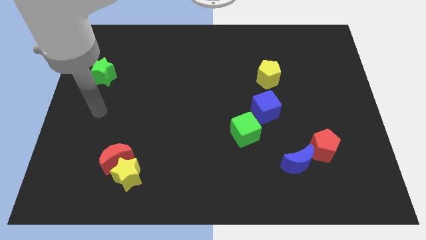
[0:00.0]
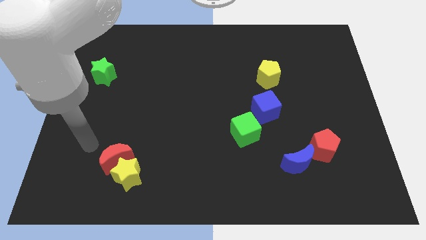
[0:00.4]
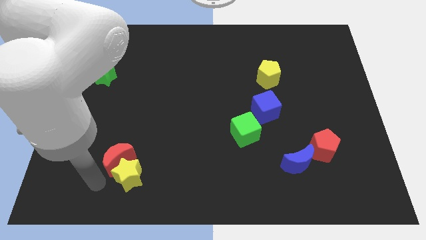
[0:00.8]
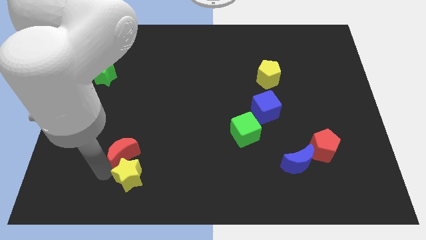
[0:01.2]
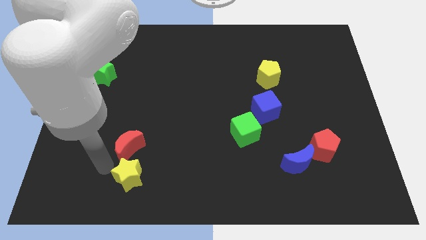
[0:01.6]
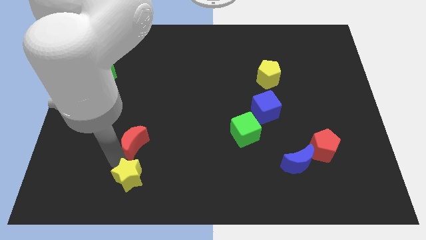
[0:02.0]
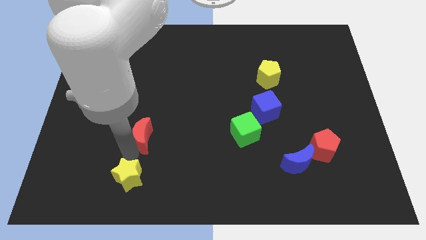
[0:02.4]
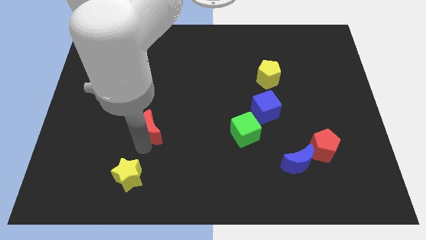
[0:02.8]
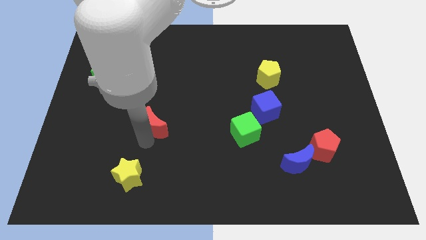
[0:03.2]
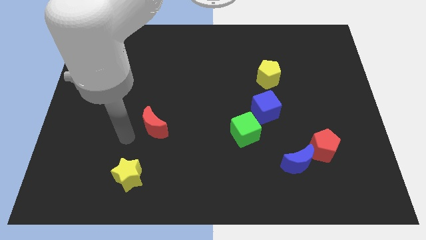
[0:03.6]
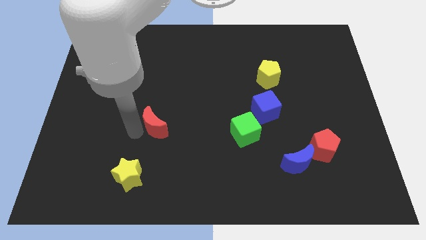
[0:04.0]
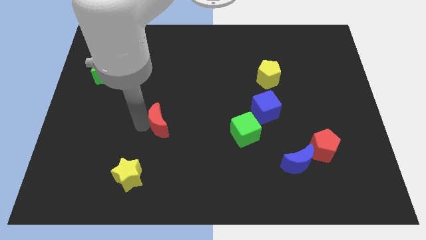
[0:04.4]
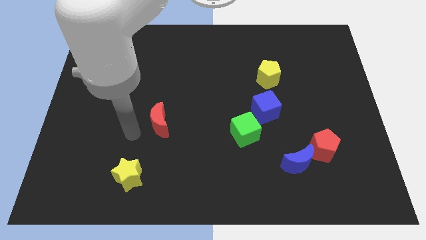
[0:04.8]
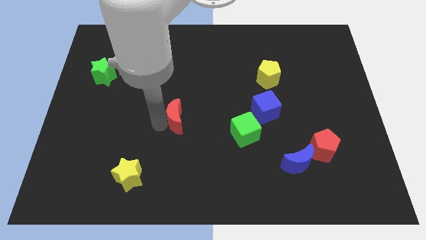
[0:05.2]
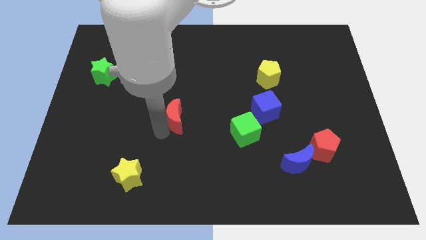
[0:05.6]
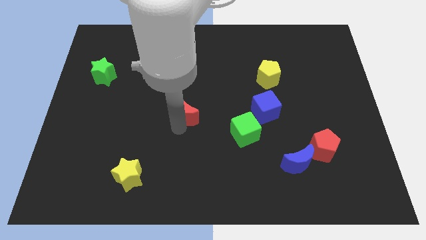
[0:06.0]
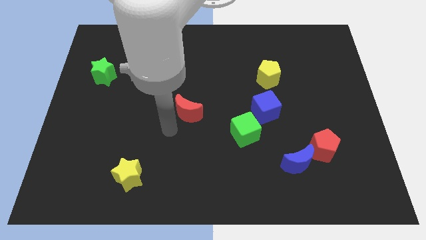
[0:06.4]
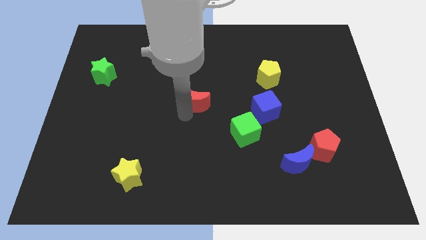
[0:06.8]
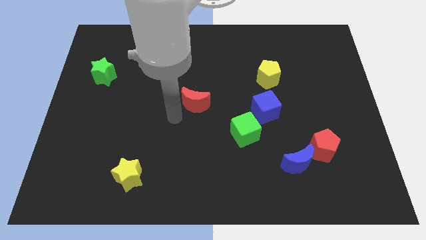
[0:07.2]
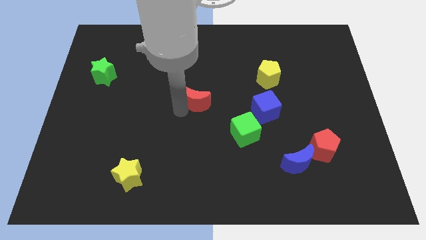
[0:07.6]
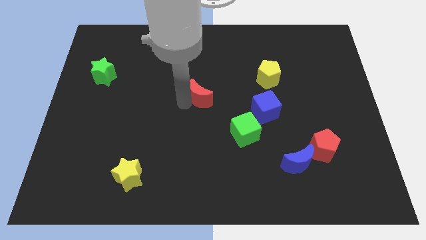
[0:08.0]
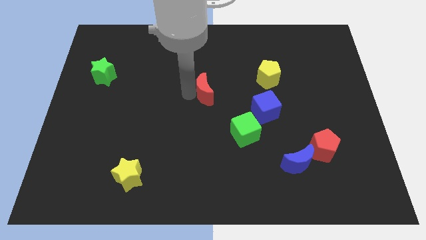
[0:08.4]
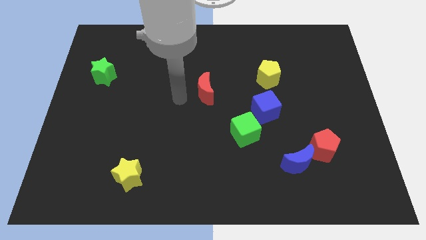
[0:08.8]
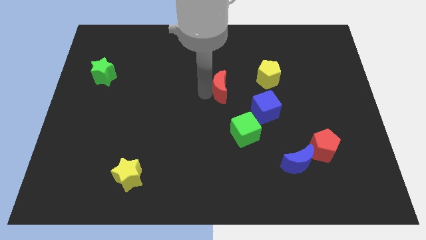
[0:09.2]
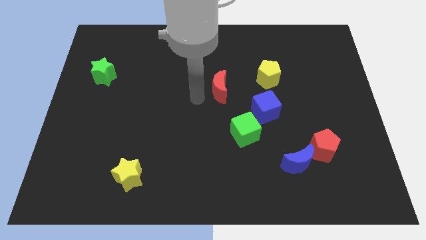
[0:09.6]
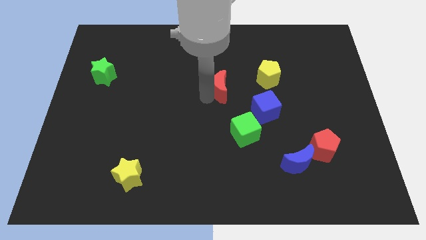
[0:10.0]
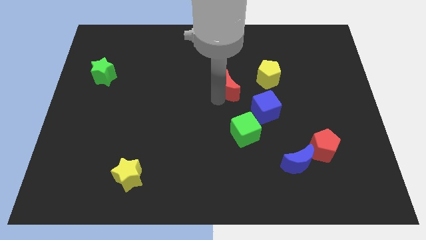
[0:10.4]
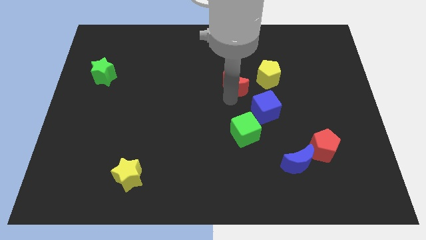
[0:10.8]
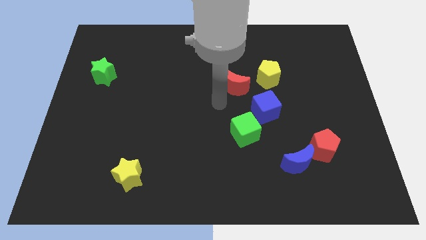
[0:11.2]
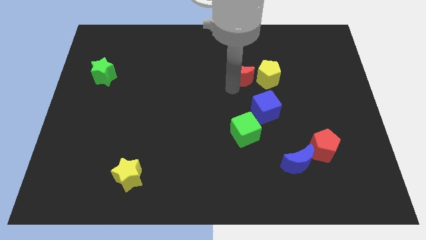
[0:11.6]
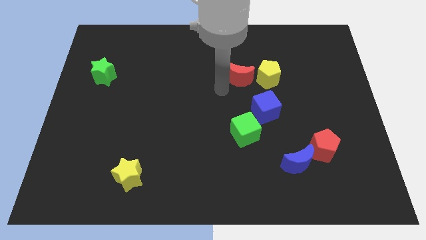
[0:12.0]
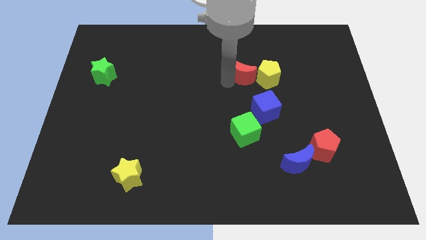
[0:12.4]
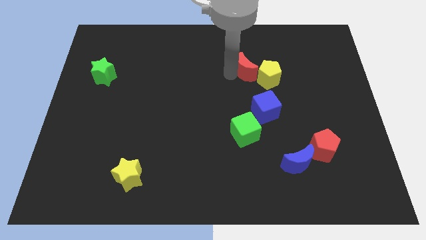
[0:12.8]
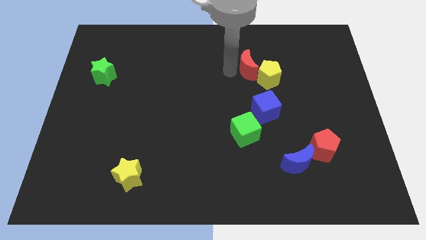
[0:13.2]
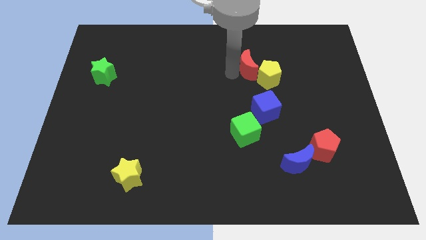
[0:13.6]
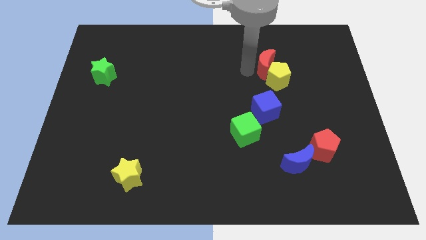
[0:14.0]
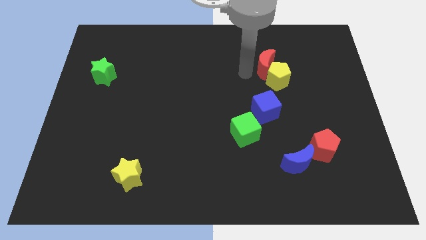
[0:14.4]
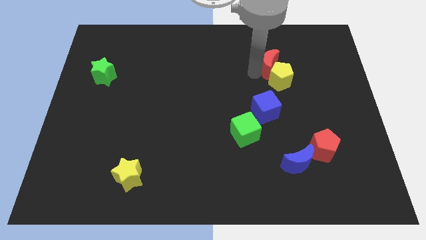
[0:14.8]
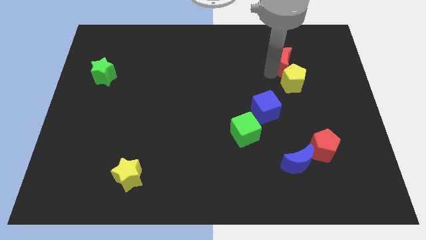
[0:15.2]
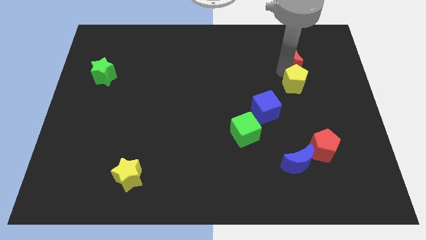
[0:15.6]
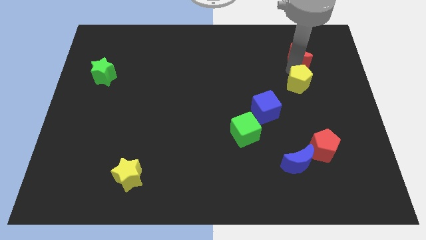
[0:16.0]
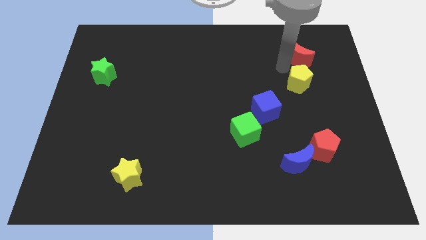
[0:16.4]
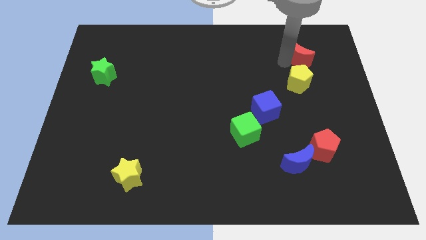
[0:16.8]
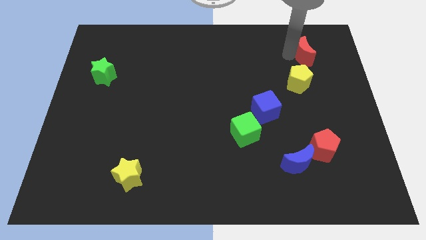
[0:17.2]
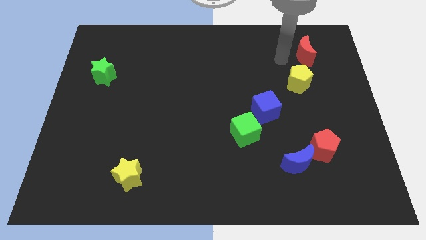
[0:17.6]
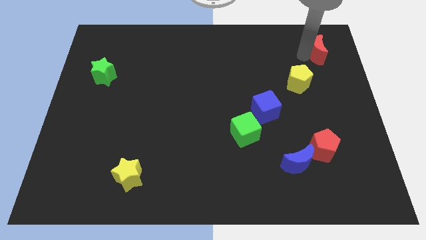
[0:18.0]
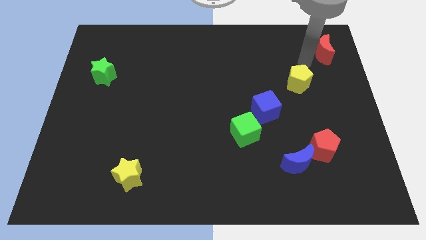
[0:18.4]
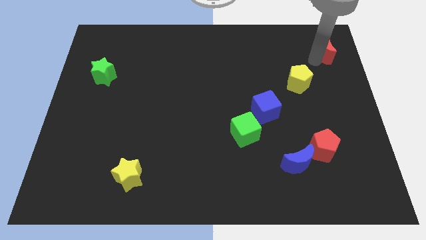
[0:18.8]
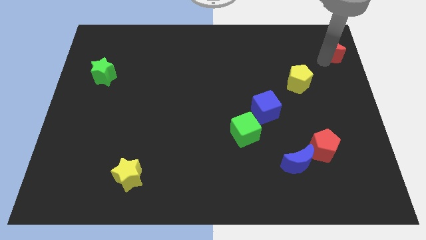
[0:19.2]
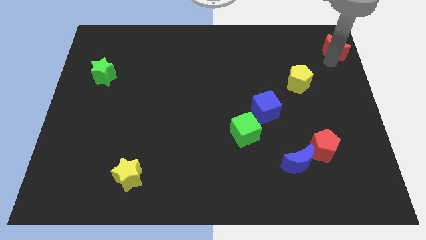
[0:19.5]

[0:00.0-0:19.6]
put the red moon to the upper right corner

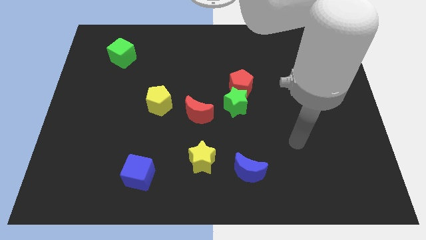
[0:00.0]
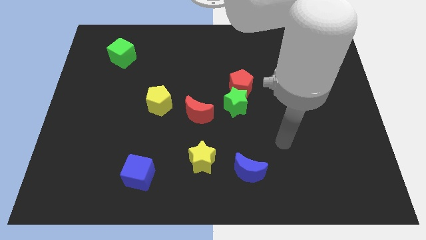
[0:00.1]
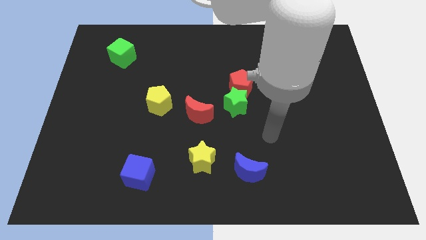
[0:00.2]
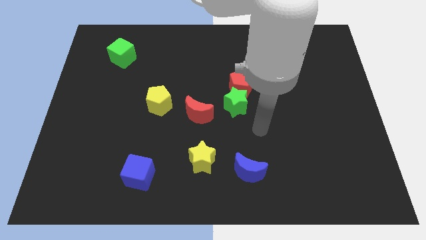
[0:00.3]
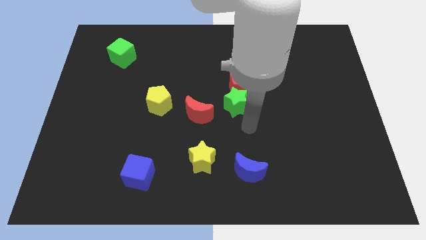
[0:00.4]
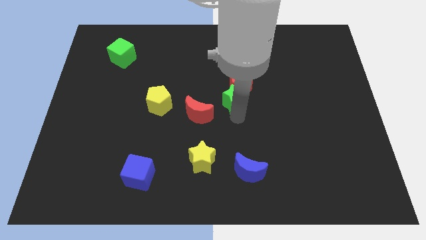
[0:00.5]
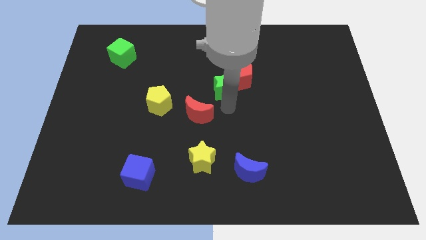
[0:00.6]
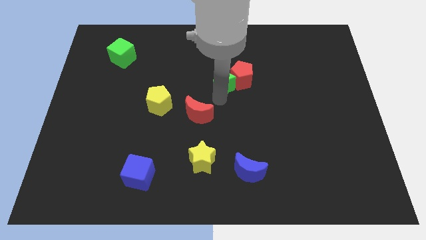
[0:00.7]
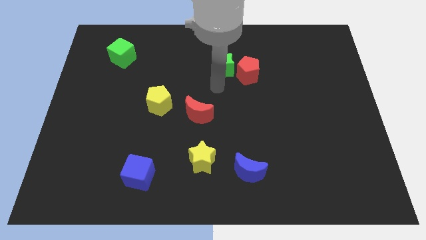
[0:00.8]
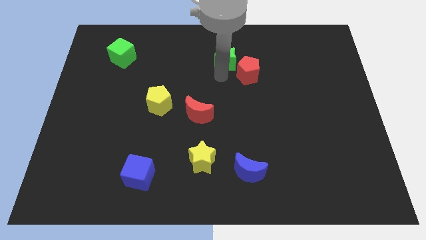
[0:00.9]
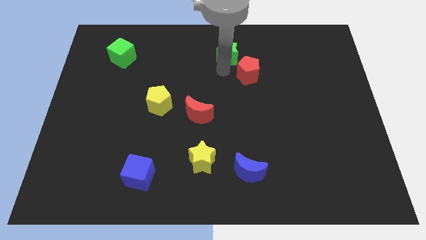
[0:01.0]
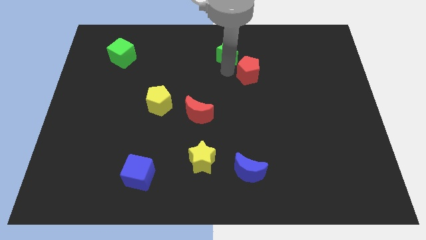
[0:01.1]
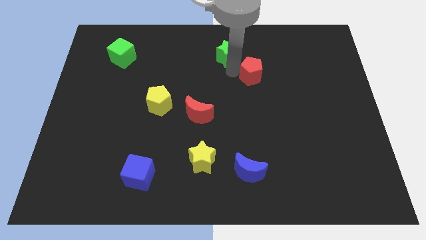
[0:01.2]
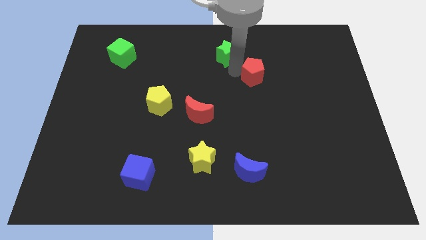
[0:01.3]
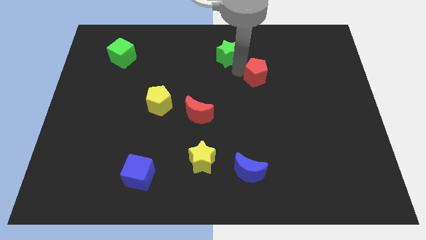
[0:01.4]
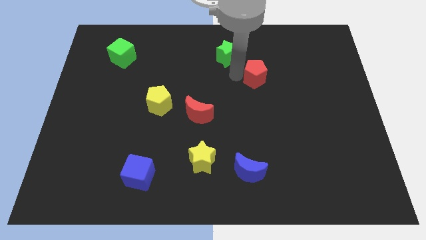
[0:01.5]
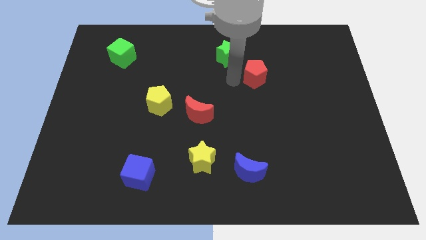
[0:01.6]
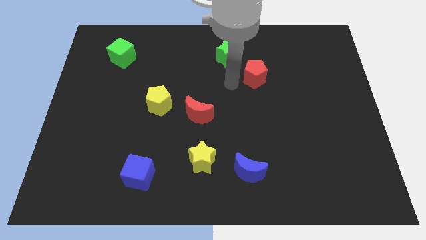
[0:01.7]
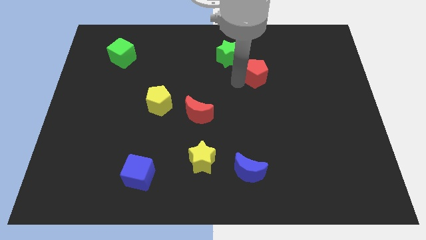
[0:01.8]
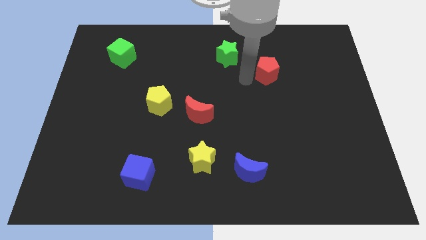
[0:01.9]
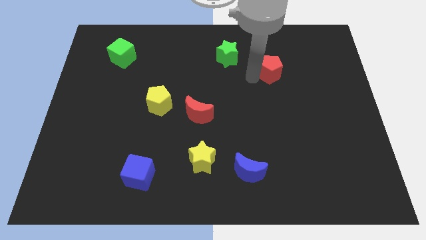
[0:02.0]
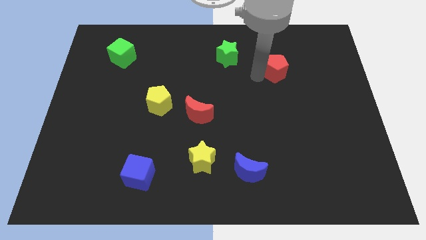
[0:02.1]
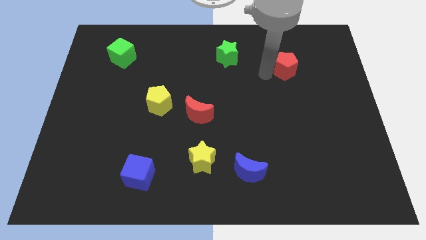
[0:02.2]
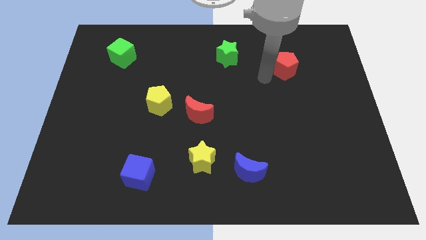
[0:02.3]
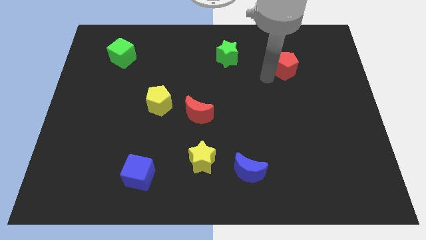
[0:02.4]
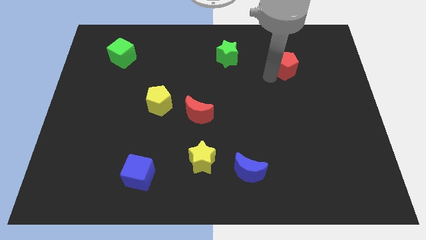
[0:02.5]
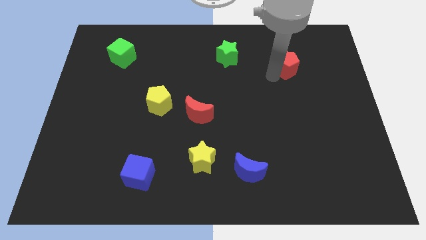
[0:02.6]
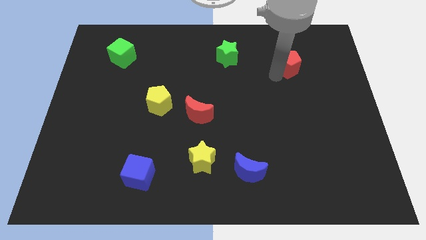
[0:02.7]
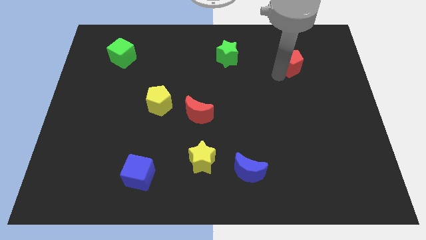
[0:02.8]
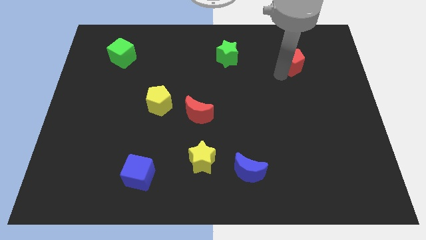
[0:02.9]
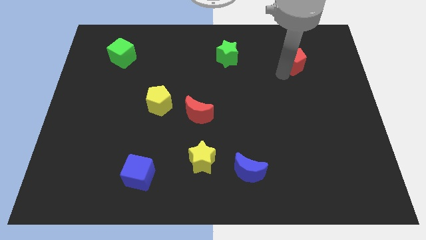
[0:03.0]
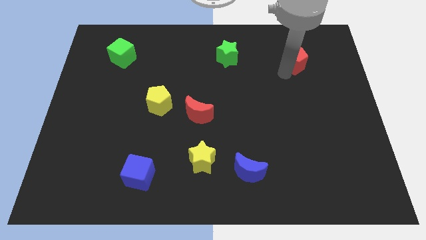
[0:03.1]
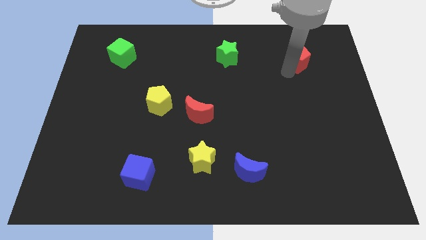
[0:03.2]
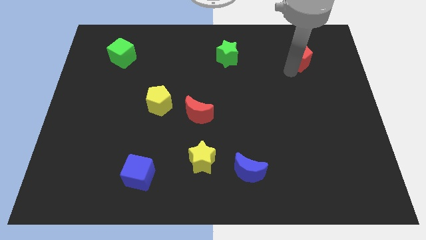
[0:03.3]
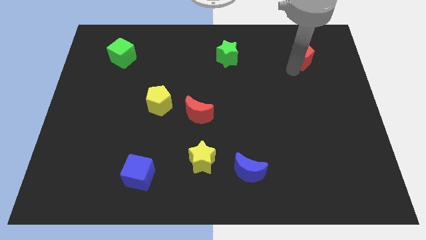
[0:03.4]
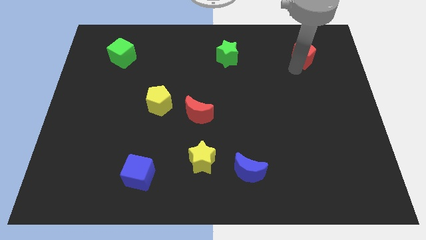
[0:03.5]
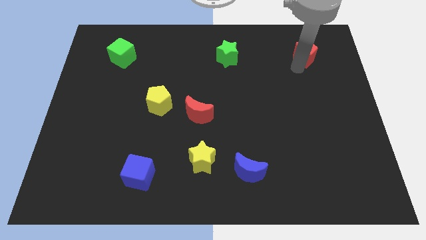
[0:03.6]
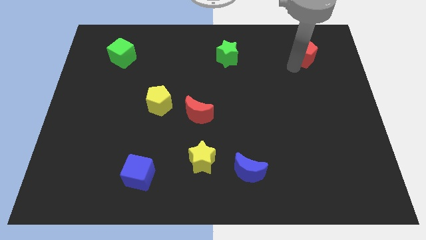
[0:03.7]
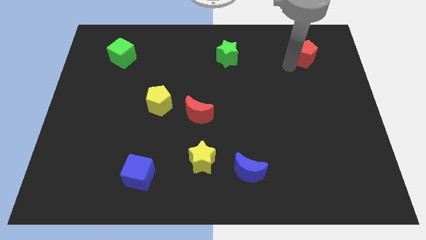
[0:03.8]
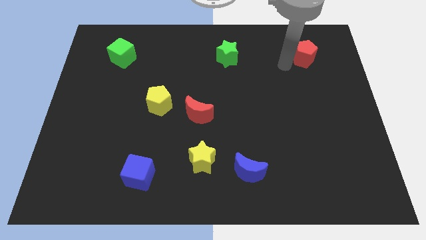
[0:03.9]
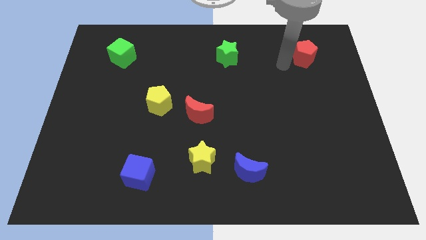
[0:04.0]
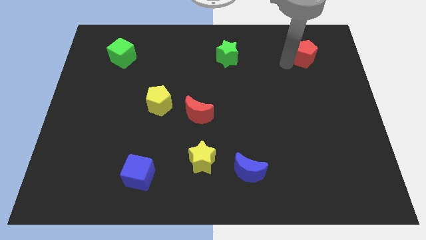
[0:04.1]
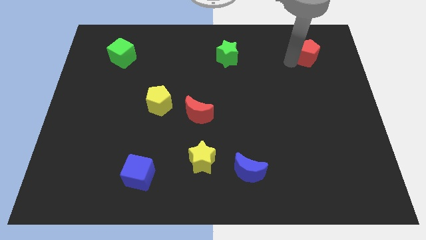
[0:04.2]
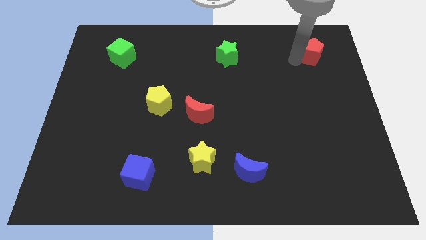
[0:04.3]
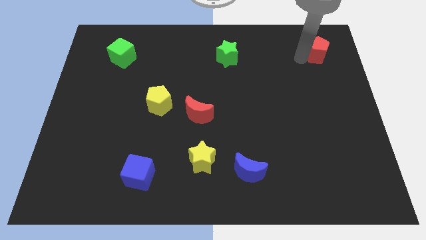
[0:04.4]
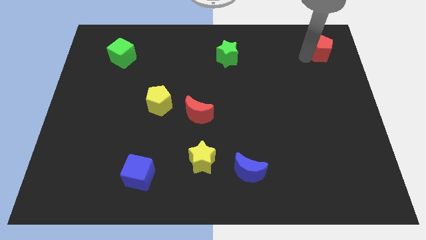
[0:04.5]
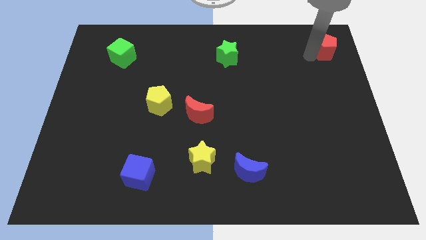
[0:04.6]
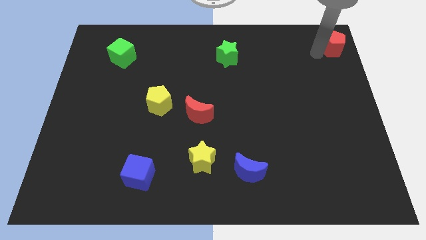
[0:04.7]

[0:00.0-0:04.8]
slide the red pentagon to the top right
